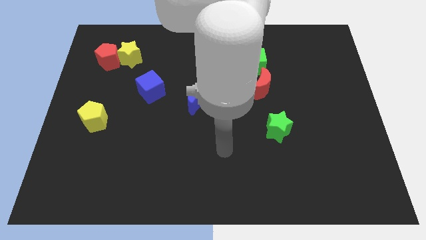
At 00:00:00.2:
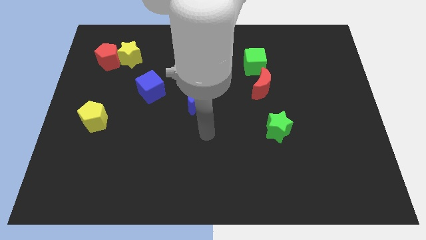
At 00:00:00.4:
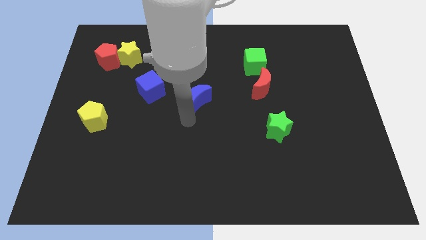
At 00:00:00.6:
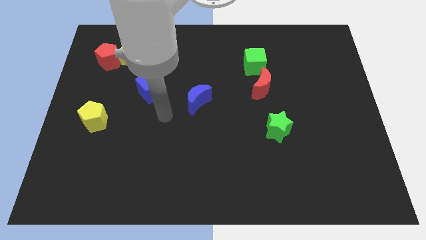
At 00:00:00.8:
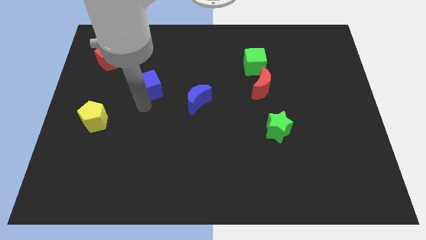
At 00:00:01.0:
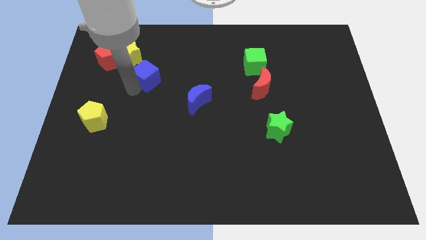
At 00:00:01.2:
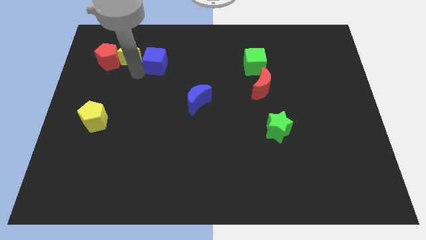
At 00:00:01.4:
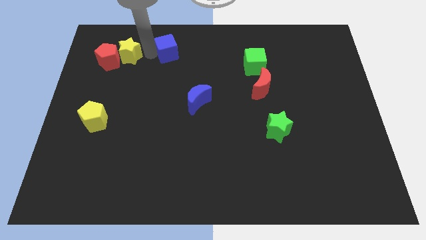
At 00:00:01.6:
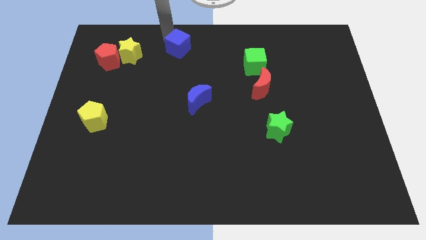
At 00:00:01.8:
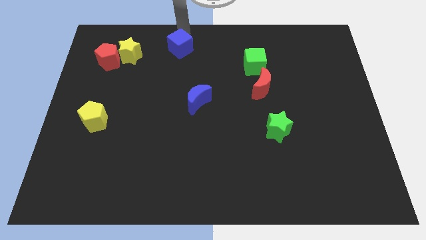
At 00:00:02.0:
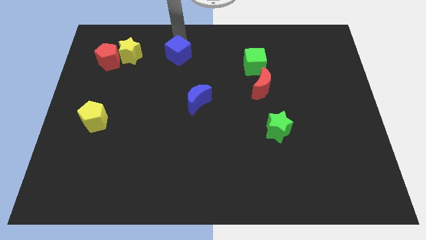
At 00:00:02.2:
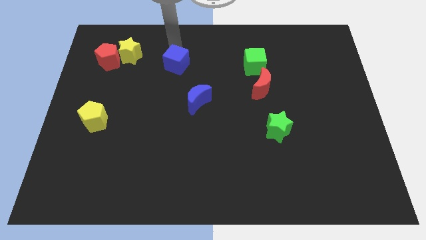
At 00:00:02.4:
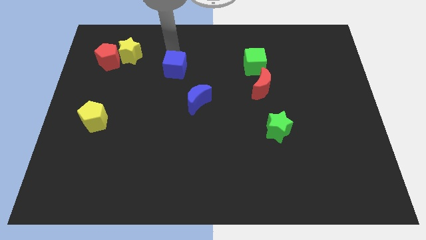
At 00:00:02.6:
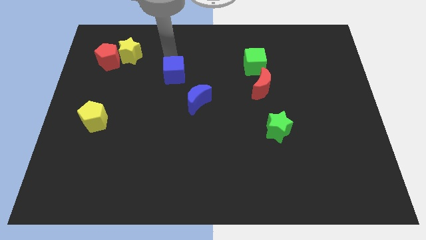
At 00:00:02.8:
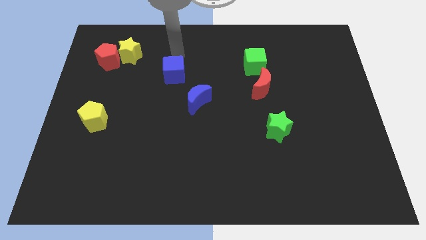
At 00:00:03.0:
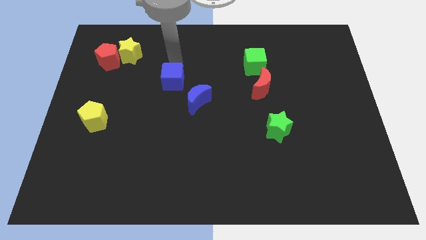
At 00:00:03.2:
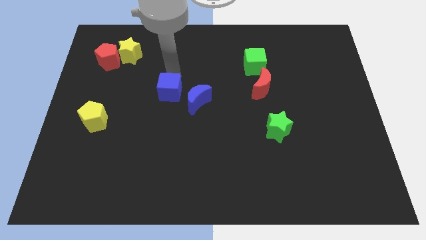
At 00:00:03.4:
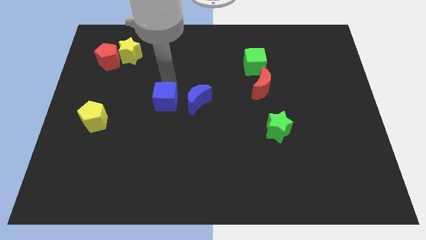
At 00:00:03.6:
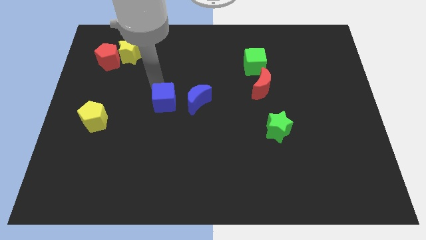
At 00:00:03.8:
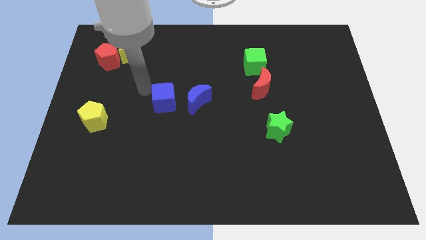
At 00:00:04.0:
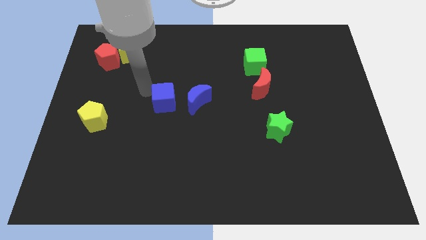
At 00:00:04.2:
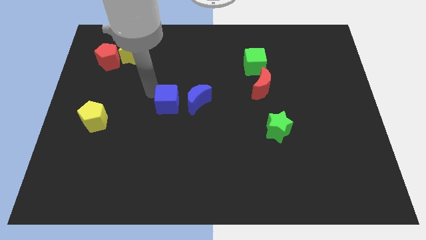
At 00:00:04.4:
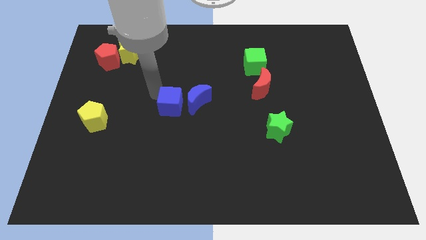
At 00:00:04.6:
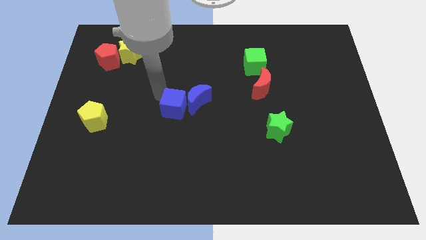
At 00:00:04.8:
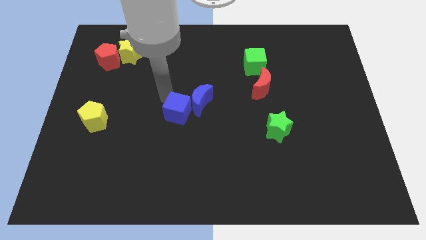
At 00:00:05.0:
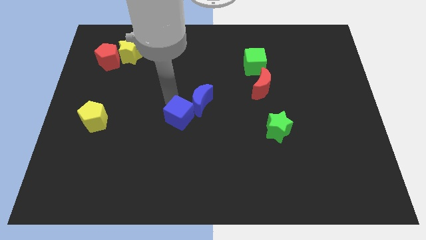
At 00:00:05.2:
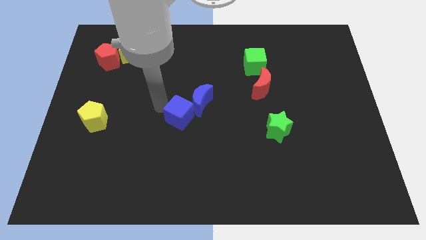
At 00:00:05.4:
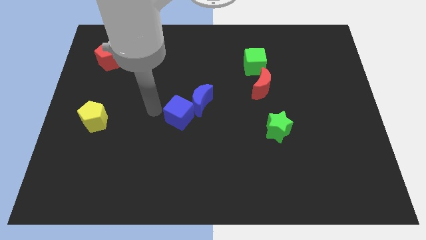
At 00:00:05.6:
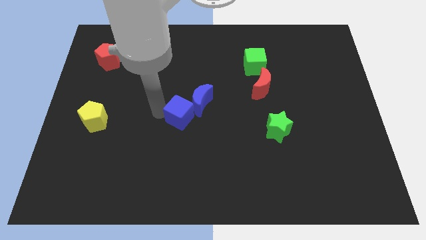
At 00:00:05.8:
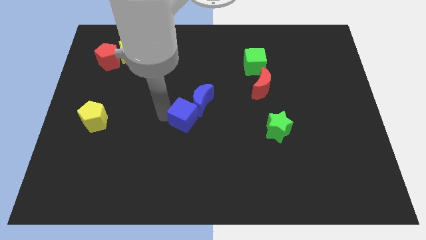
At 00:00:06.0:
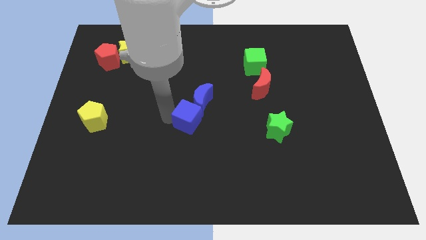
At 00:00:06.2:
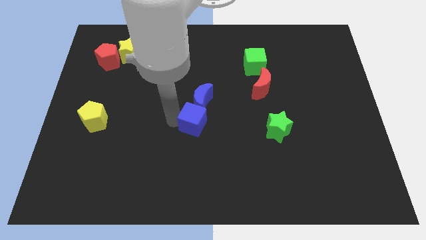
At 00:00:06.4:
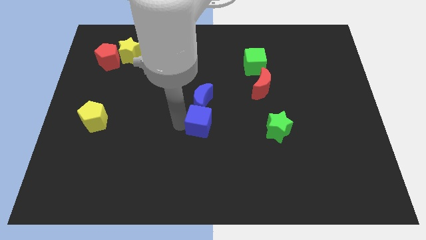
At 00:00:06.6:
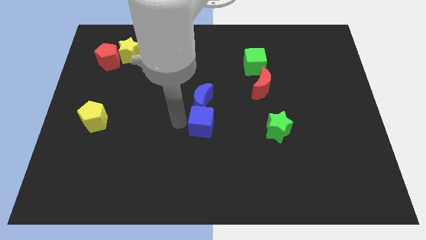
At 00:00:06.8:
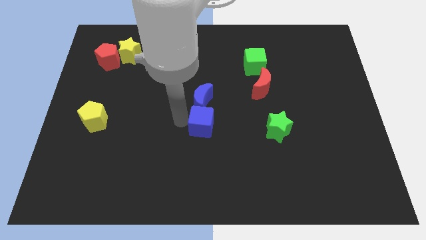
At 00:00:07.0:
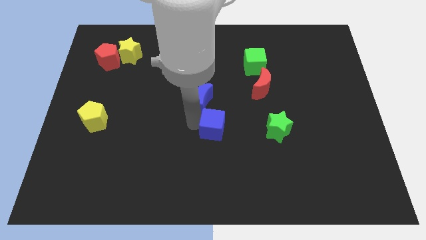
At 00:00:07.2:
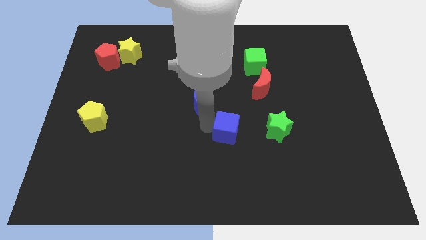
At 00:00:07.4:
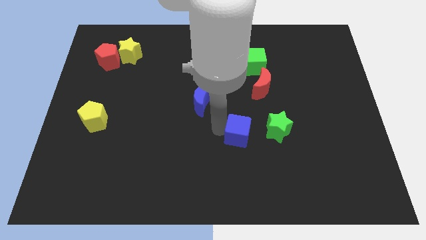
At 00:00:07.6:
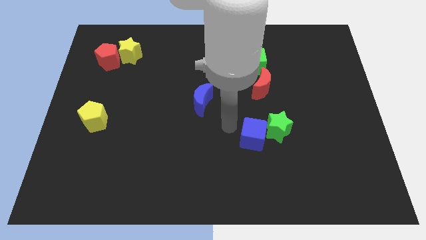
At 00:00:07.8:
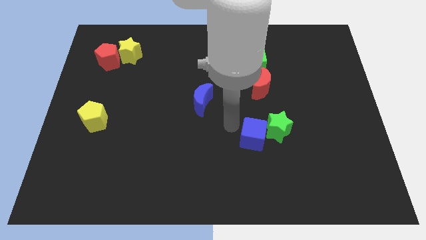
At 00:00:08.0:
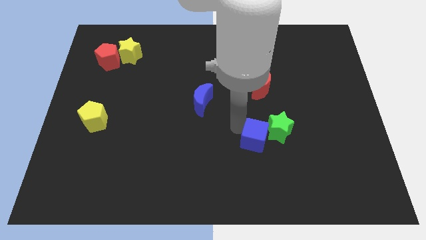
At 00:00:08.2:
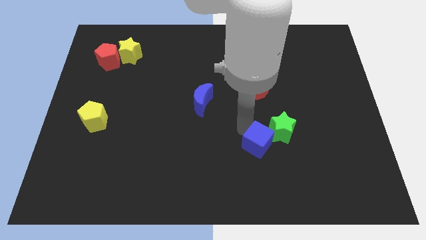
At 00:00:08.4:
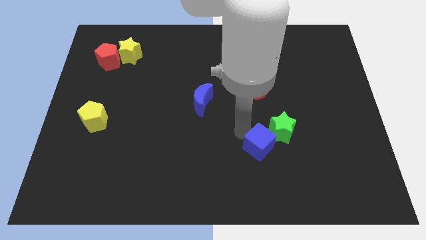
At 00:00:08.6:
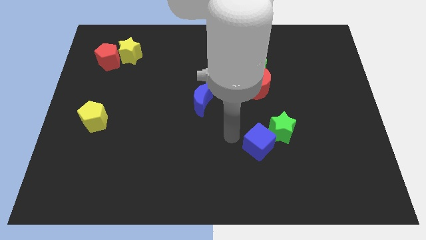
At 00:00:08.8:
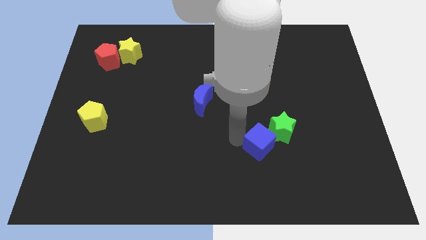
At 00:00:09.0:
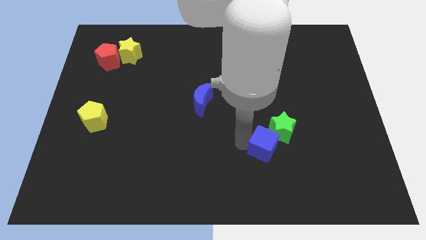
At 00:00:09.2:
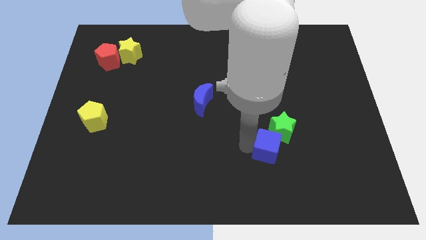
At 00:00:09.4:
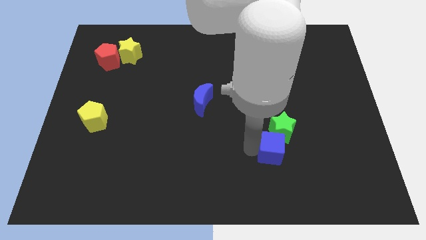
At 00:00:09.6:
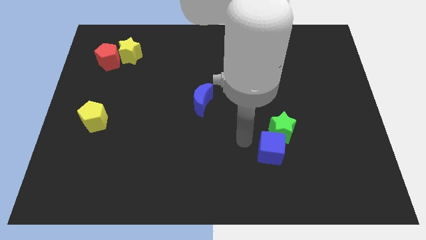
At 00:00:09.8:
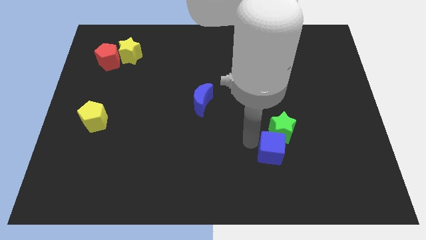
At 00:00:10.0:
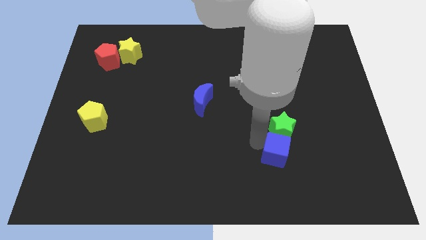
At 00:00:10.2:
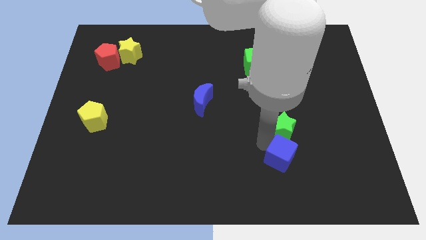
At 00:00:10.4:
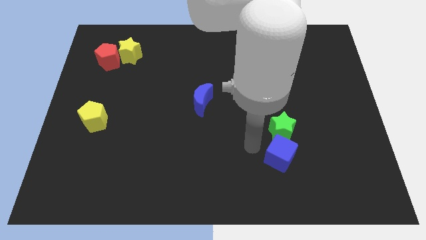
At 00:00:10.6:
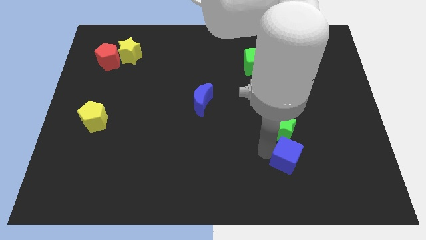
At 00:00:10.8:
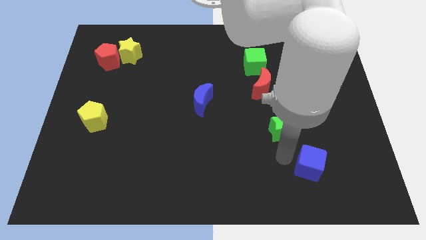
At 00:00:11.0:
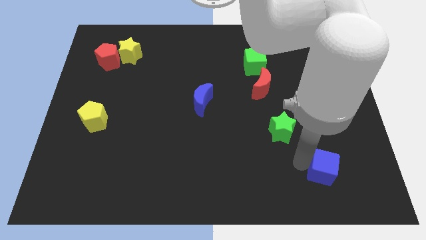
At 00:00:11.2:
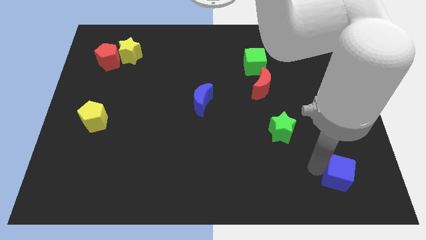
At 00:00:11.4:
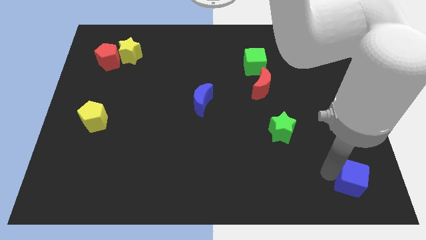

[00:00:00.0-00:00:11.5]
push the blue cube to the bottom right

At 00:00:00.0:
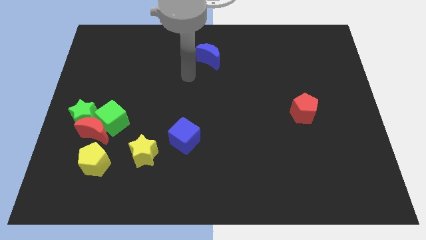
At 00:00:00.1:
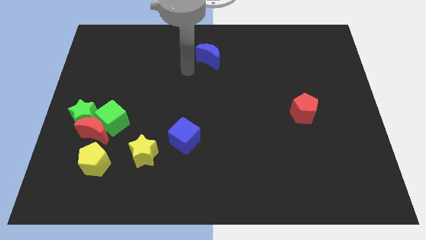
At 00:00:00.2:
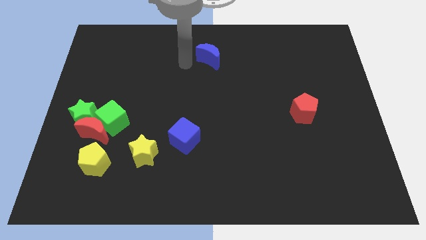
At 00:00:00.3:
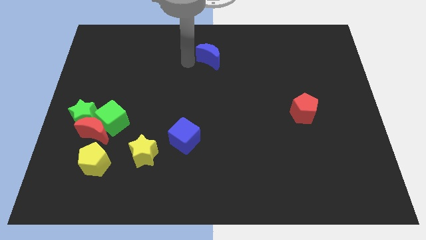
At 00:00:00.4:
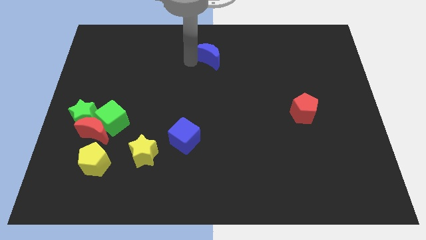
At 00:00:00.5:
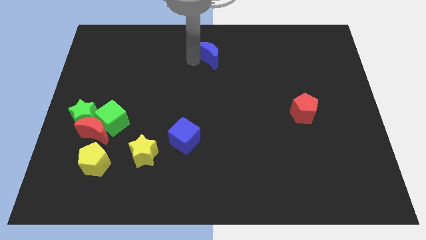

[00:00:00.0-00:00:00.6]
push the blue moon to the top
